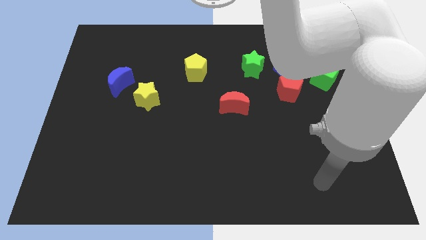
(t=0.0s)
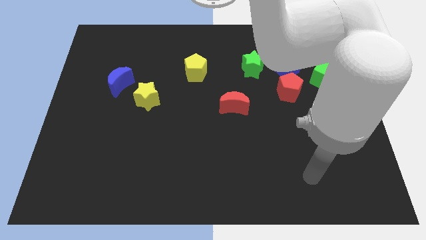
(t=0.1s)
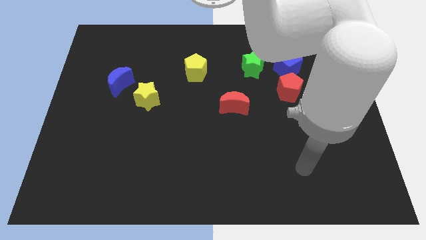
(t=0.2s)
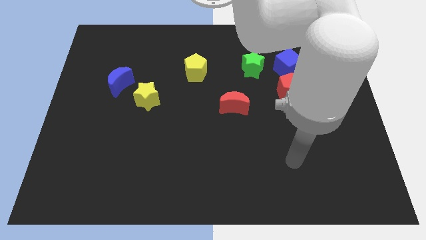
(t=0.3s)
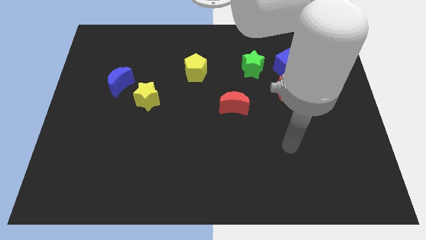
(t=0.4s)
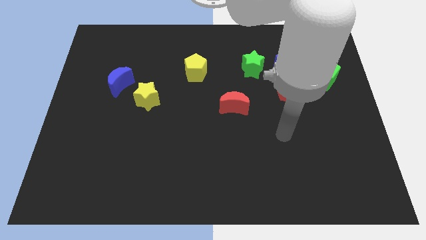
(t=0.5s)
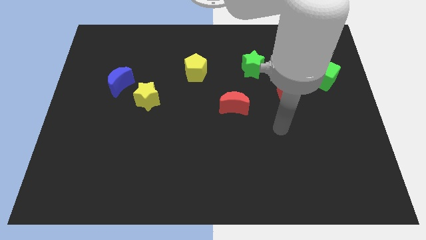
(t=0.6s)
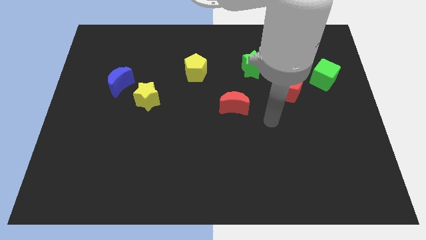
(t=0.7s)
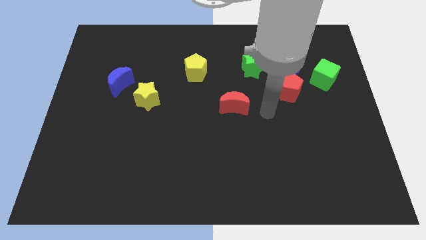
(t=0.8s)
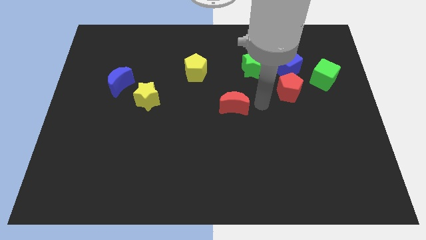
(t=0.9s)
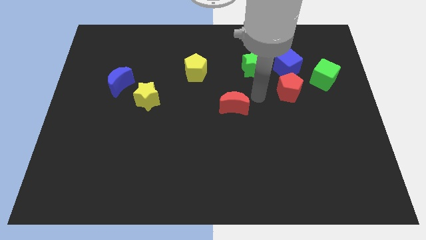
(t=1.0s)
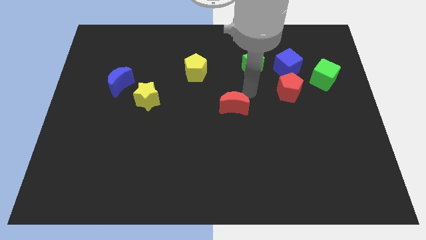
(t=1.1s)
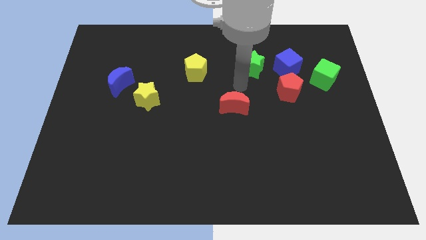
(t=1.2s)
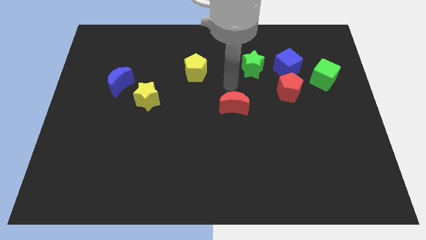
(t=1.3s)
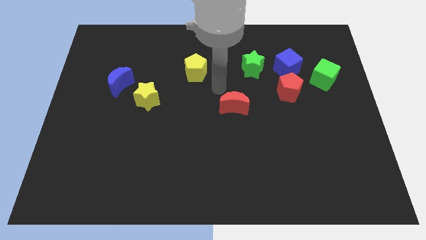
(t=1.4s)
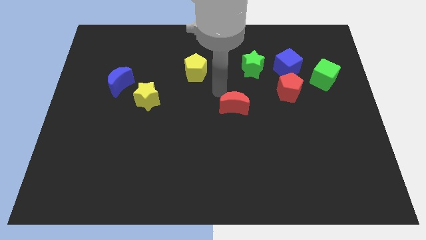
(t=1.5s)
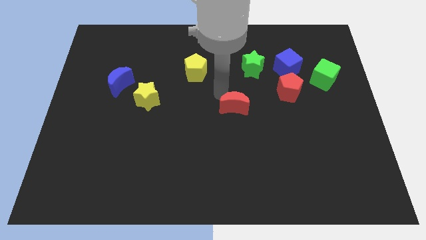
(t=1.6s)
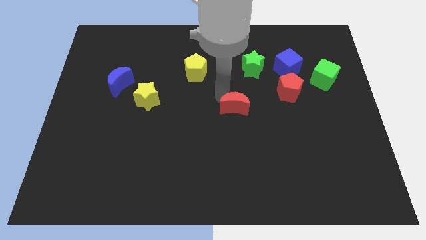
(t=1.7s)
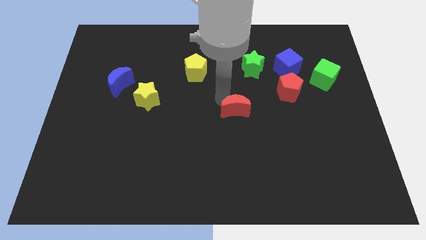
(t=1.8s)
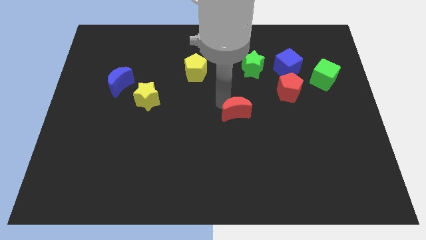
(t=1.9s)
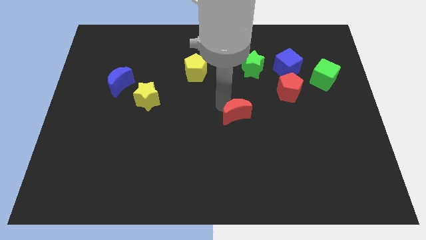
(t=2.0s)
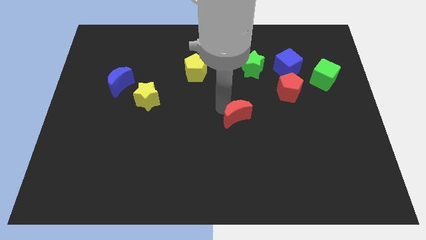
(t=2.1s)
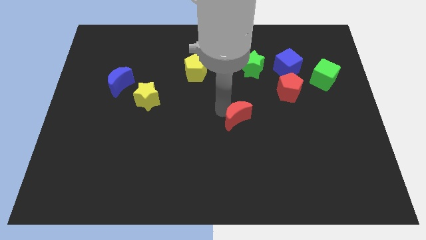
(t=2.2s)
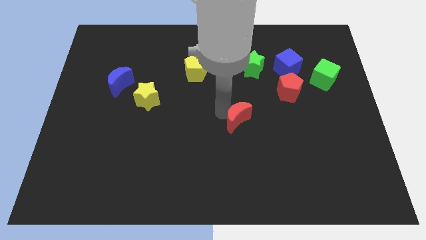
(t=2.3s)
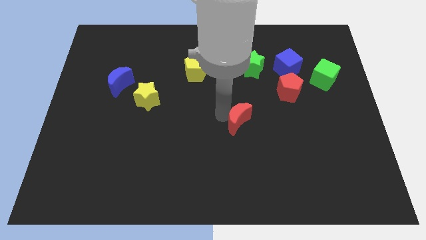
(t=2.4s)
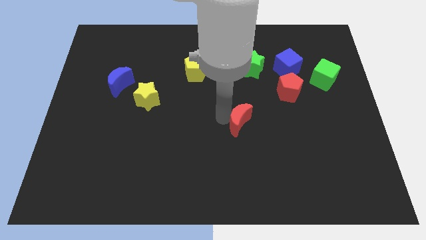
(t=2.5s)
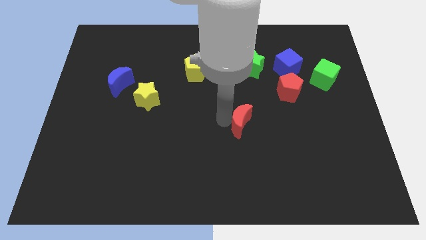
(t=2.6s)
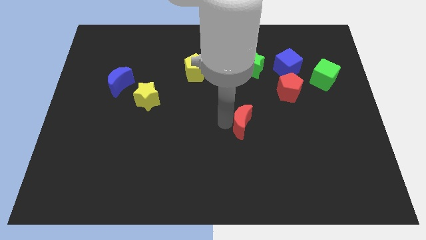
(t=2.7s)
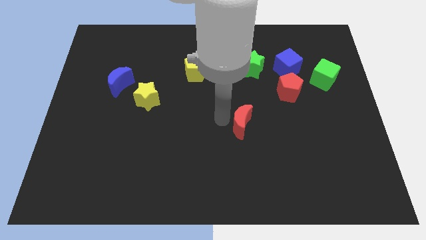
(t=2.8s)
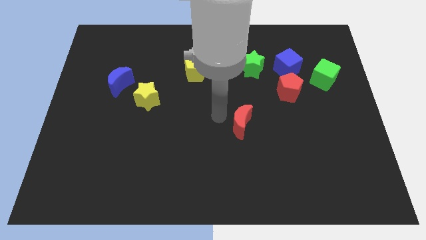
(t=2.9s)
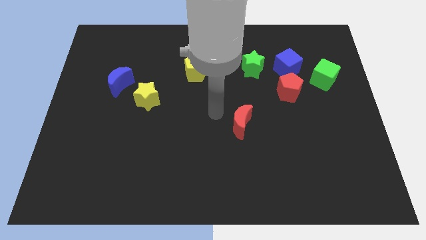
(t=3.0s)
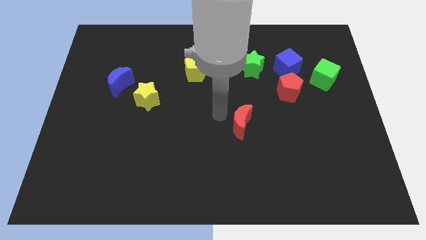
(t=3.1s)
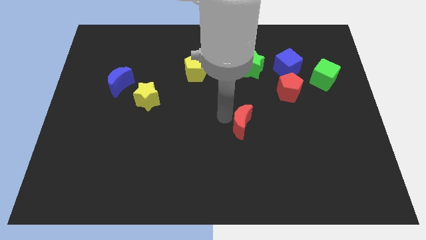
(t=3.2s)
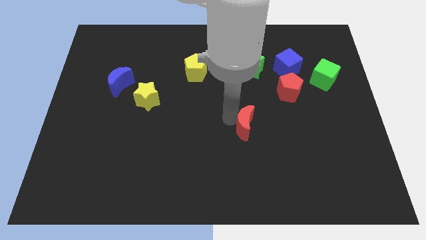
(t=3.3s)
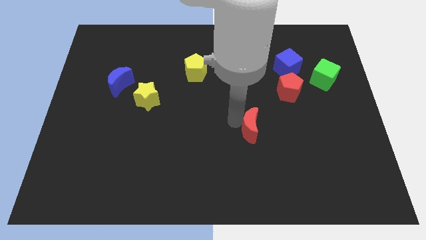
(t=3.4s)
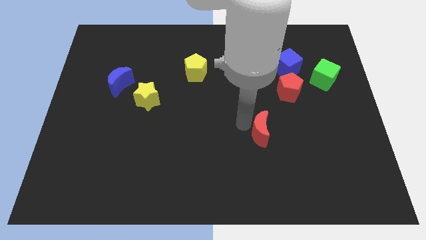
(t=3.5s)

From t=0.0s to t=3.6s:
slightly slide the red moon down and right

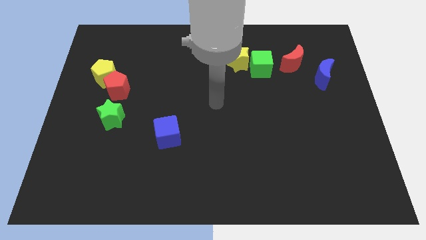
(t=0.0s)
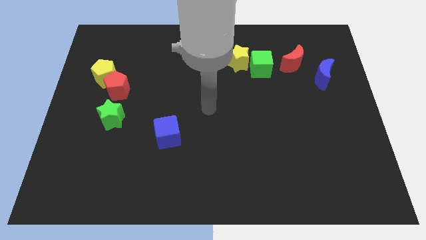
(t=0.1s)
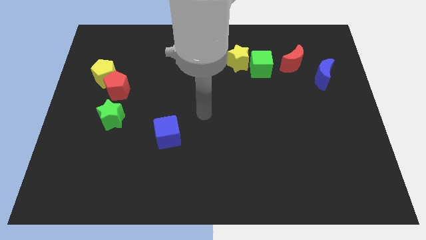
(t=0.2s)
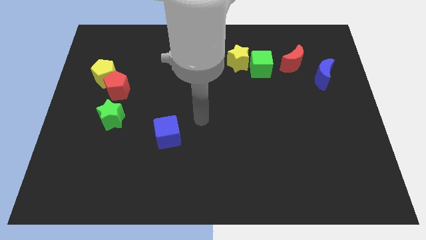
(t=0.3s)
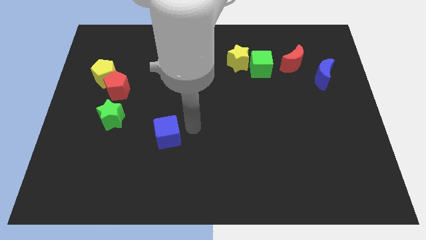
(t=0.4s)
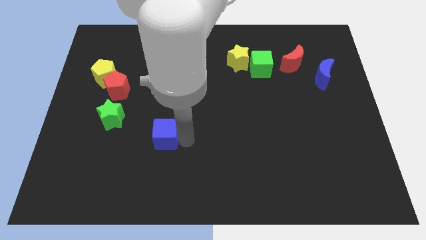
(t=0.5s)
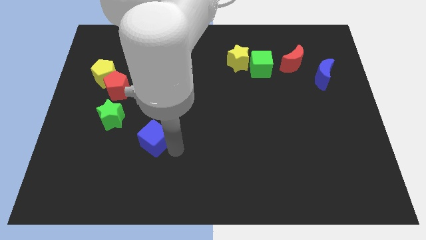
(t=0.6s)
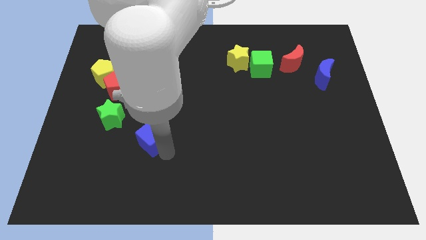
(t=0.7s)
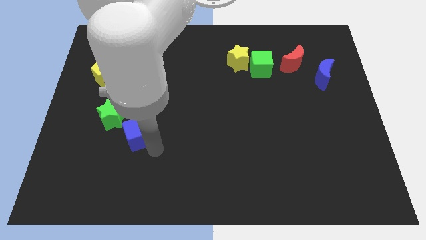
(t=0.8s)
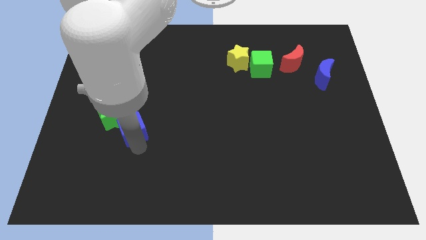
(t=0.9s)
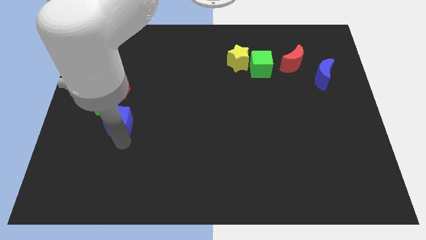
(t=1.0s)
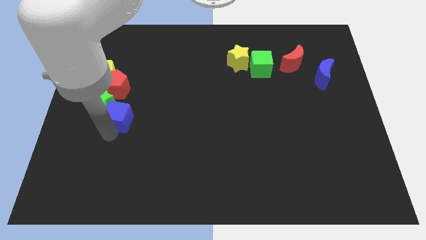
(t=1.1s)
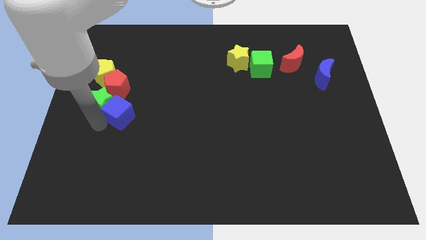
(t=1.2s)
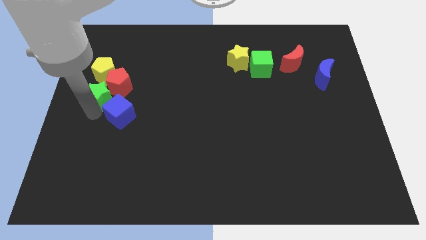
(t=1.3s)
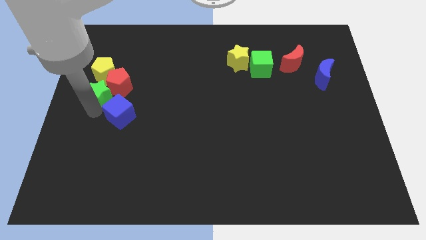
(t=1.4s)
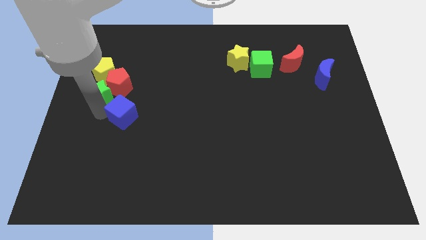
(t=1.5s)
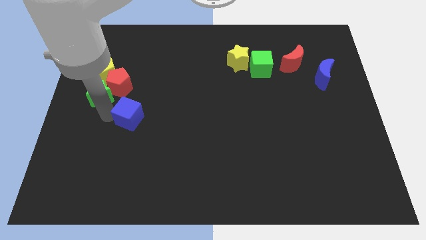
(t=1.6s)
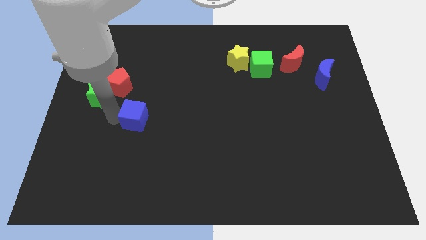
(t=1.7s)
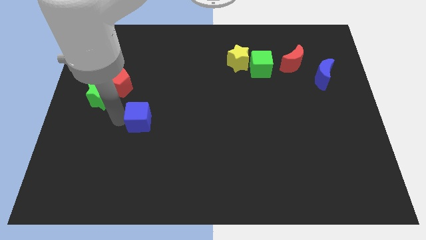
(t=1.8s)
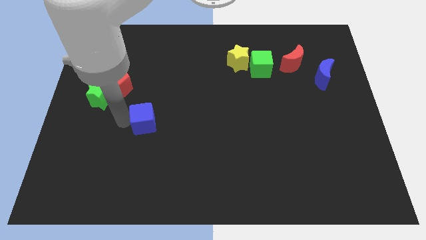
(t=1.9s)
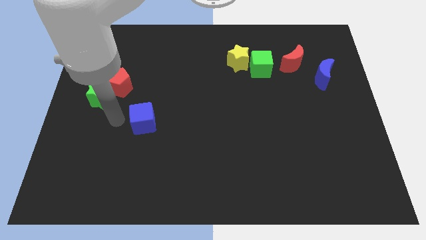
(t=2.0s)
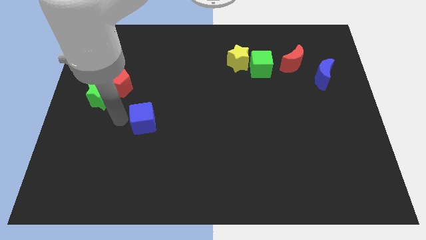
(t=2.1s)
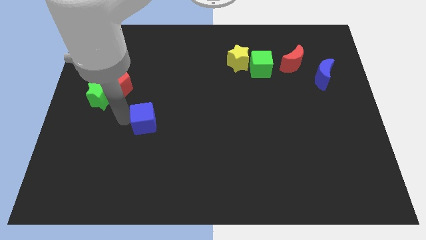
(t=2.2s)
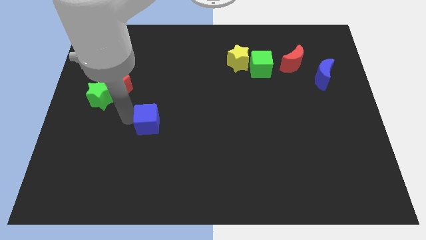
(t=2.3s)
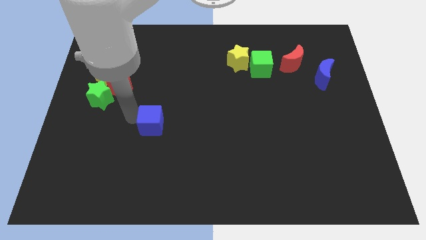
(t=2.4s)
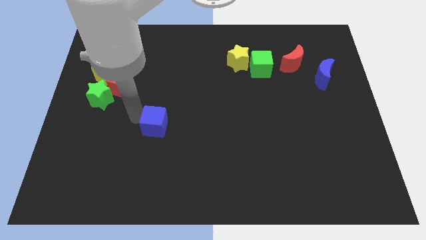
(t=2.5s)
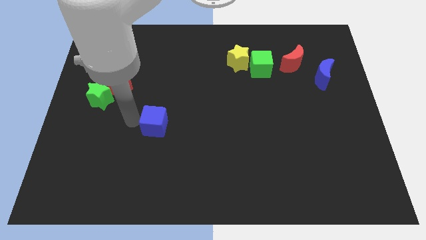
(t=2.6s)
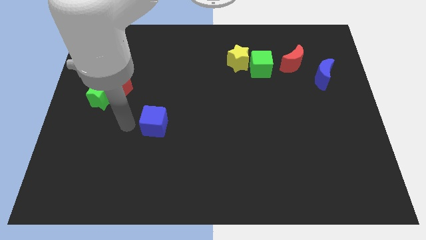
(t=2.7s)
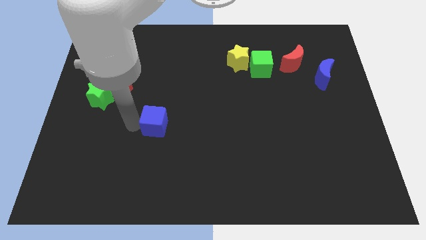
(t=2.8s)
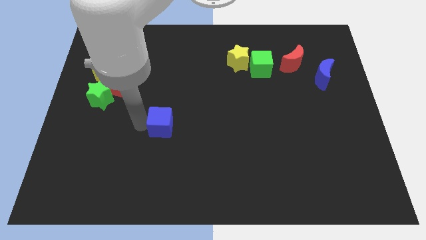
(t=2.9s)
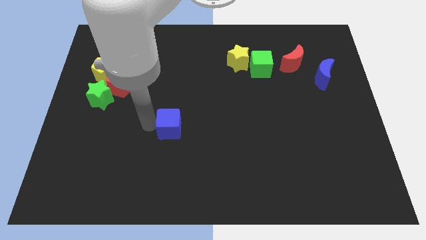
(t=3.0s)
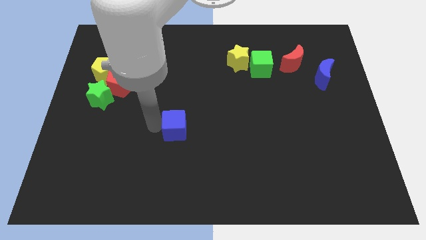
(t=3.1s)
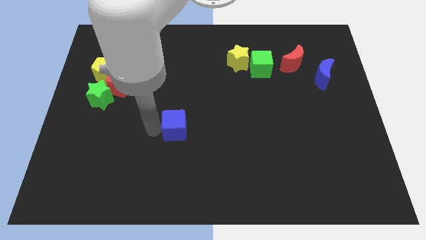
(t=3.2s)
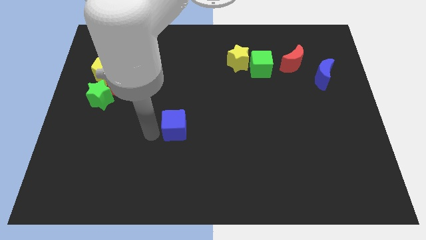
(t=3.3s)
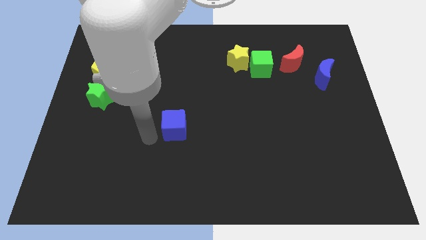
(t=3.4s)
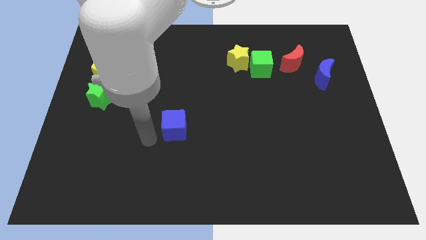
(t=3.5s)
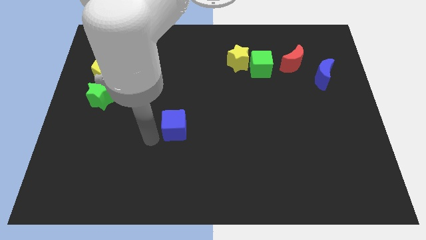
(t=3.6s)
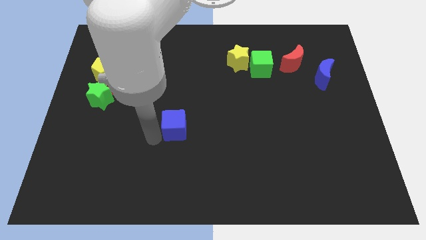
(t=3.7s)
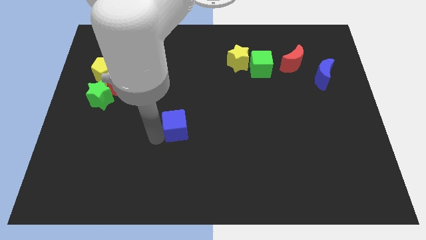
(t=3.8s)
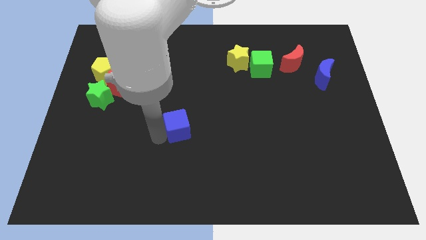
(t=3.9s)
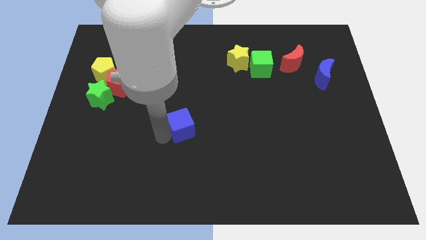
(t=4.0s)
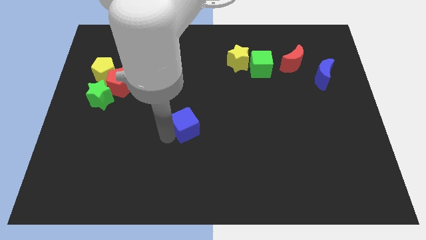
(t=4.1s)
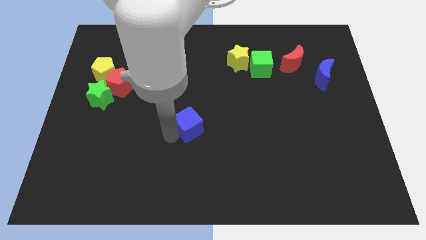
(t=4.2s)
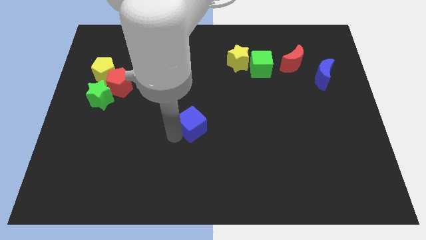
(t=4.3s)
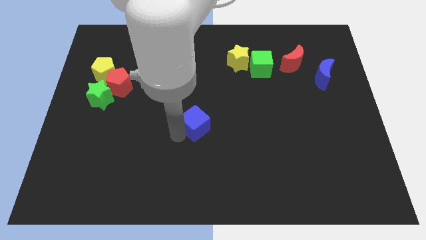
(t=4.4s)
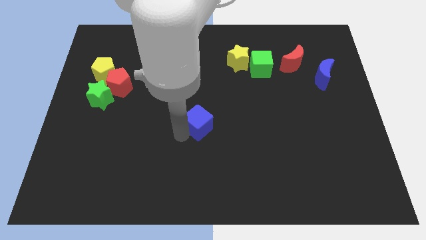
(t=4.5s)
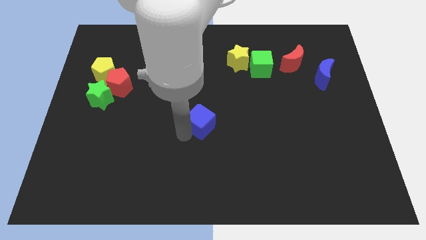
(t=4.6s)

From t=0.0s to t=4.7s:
slightly push the blue cube up and right diagonally
